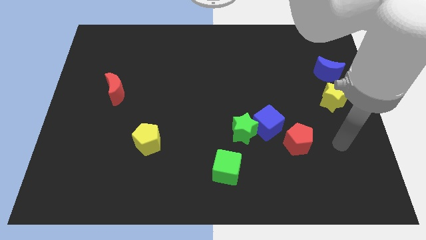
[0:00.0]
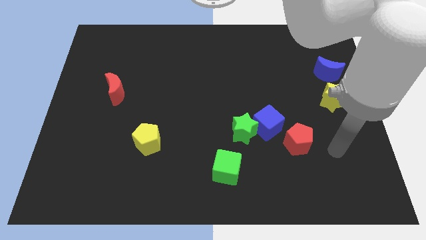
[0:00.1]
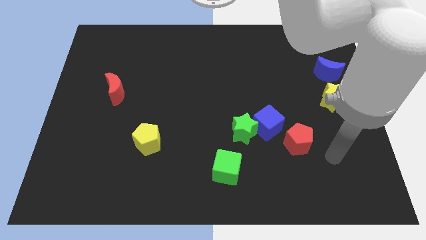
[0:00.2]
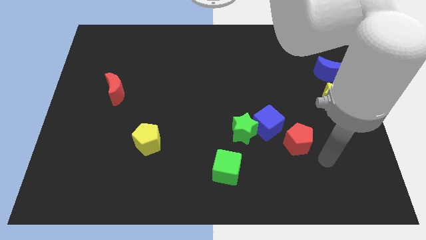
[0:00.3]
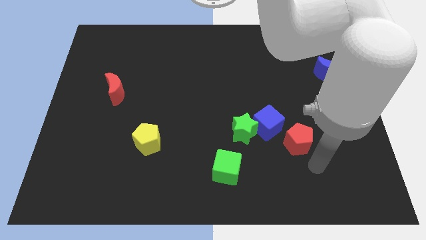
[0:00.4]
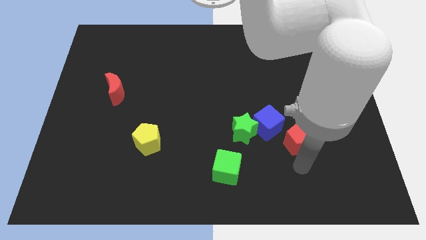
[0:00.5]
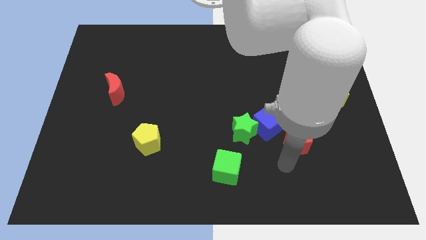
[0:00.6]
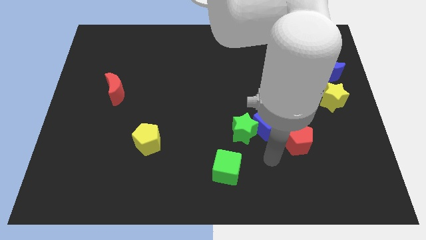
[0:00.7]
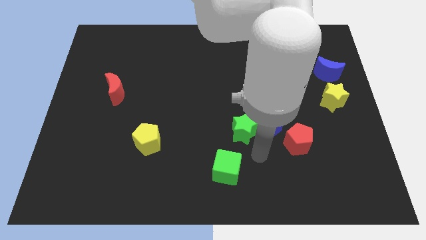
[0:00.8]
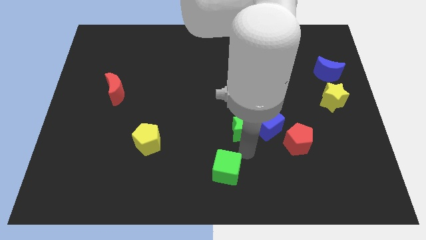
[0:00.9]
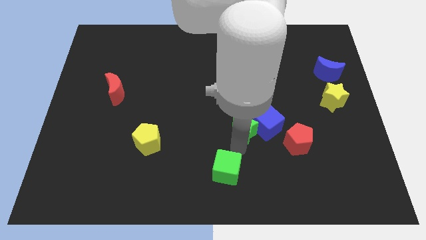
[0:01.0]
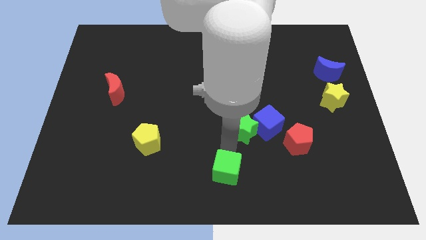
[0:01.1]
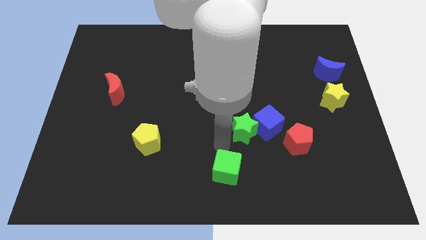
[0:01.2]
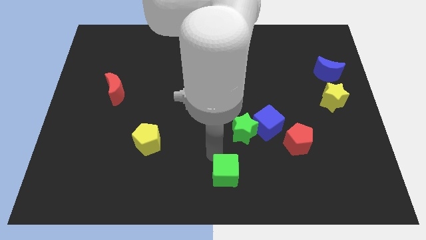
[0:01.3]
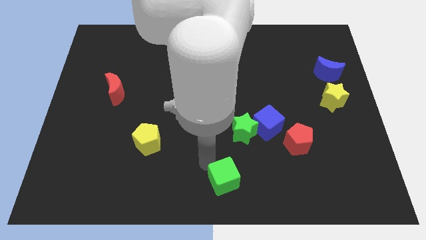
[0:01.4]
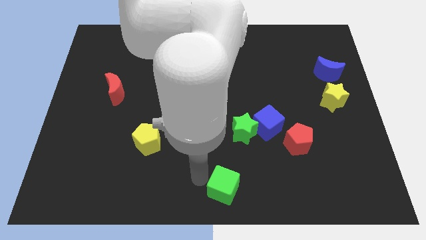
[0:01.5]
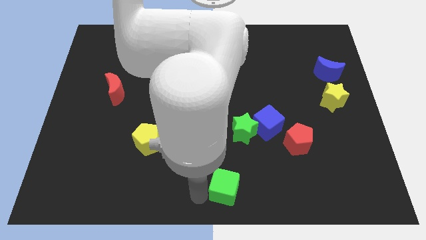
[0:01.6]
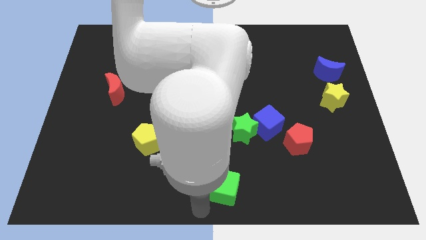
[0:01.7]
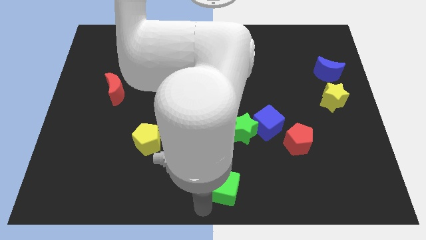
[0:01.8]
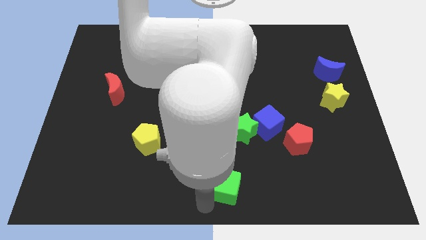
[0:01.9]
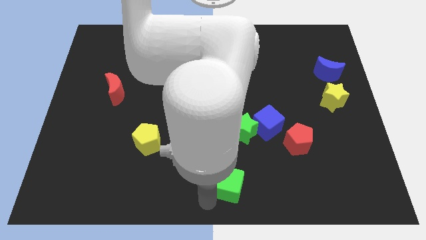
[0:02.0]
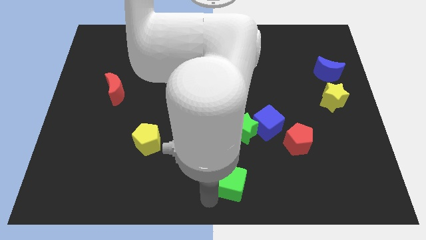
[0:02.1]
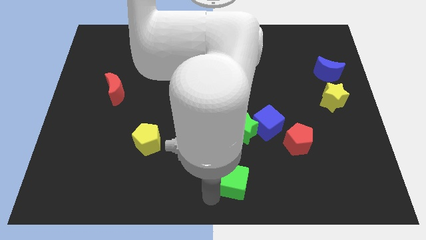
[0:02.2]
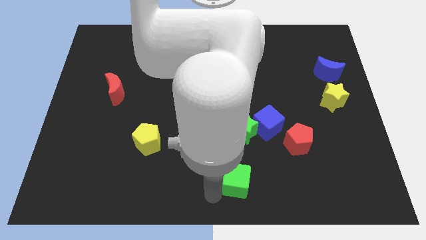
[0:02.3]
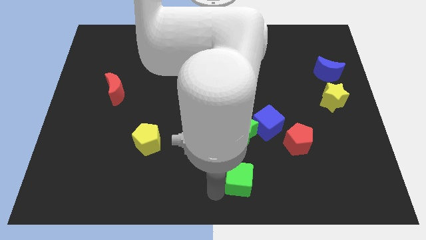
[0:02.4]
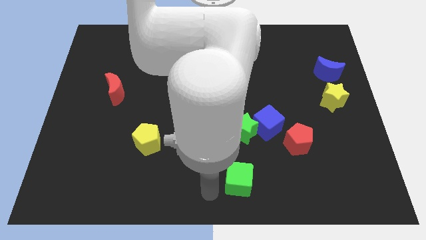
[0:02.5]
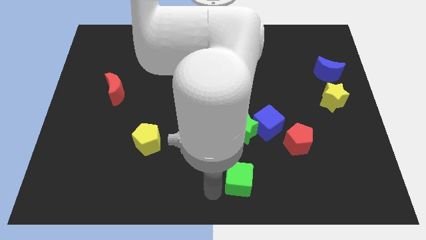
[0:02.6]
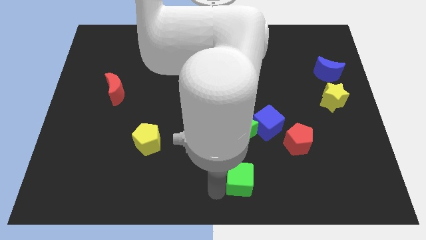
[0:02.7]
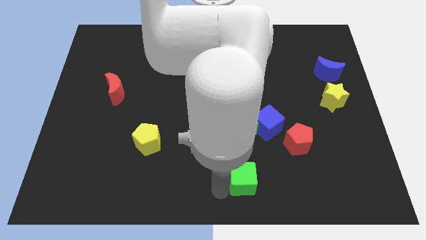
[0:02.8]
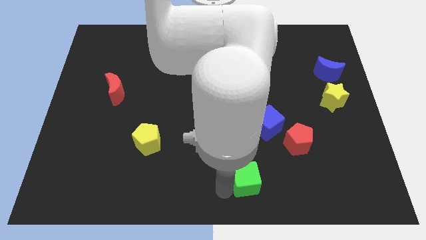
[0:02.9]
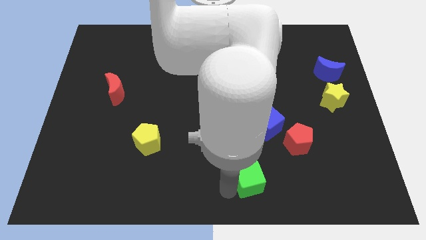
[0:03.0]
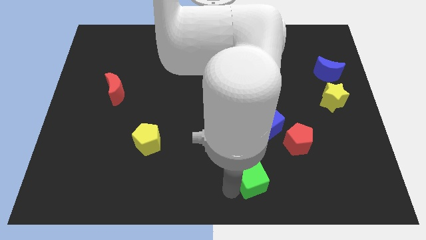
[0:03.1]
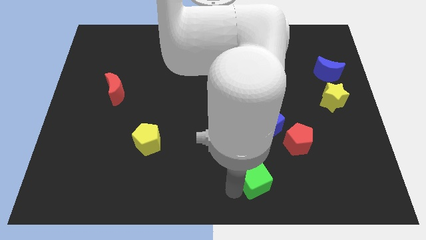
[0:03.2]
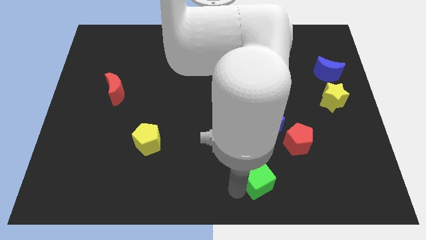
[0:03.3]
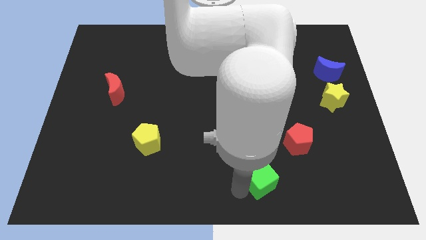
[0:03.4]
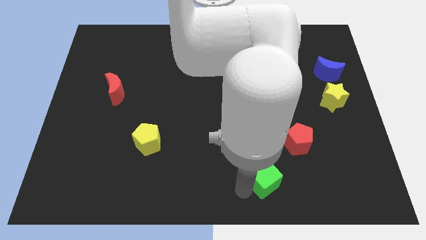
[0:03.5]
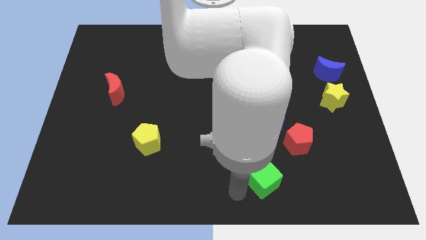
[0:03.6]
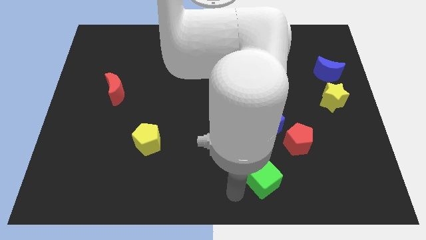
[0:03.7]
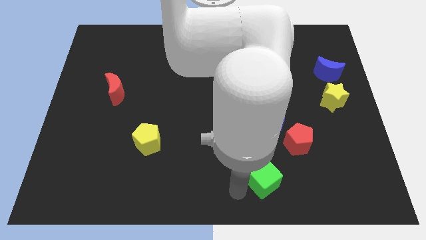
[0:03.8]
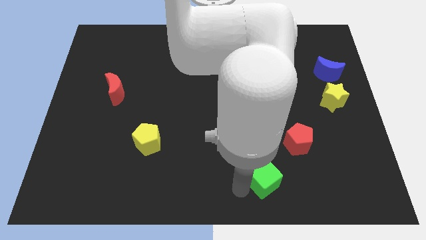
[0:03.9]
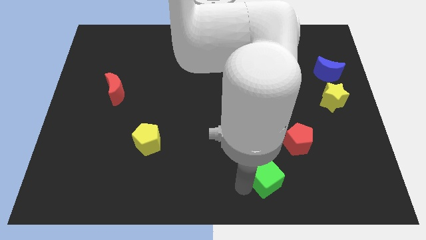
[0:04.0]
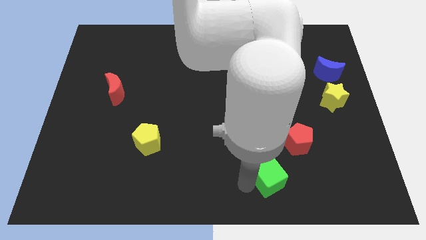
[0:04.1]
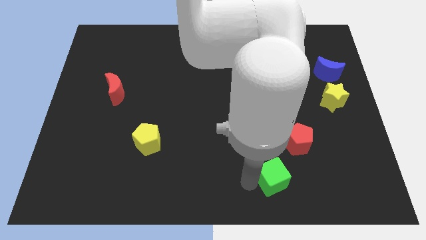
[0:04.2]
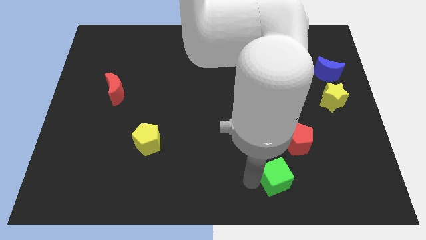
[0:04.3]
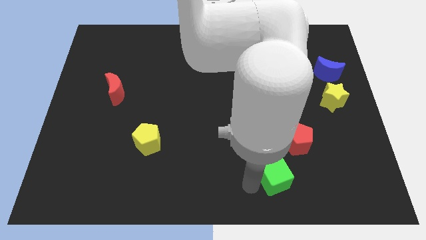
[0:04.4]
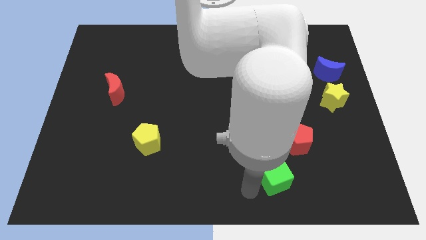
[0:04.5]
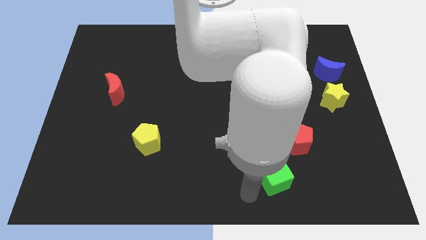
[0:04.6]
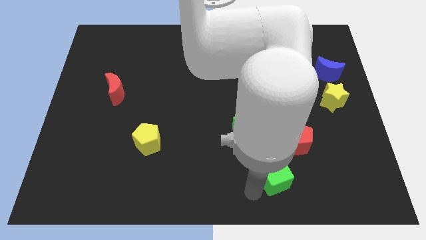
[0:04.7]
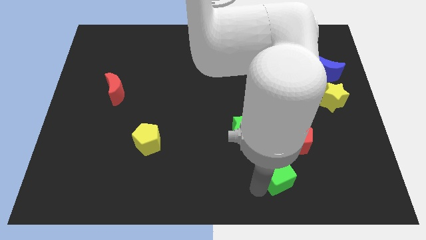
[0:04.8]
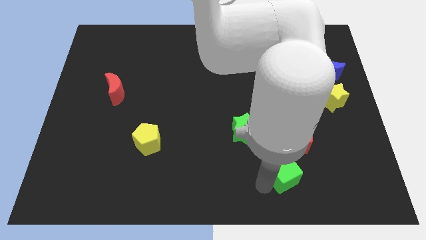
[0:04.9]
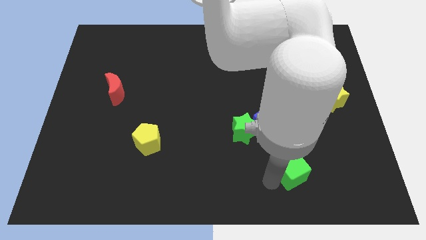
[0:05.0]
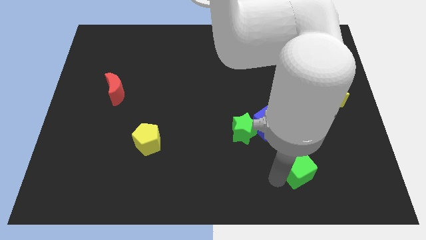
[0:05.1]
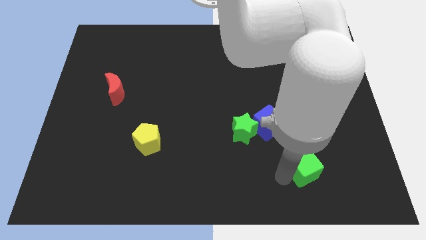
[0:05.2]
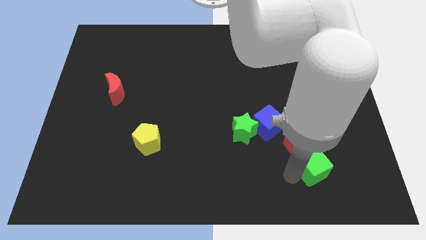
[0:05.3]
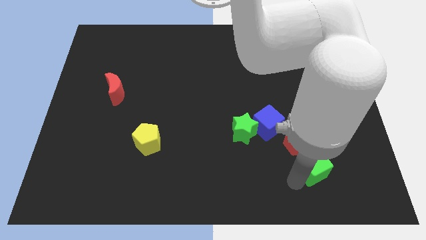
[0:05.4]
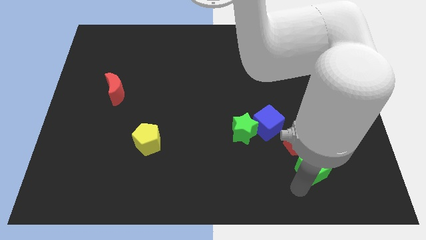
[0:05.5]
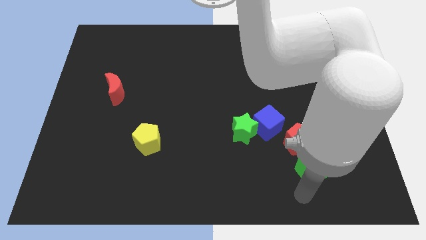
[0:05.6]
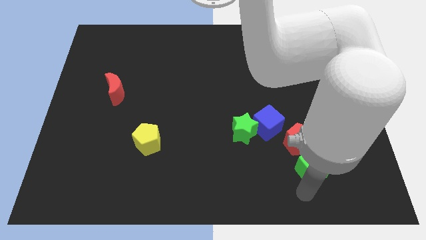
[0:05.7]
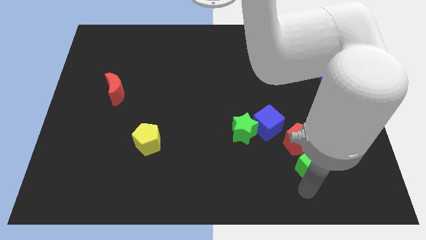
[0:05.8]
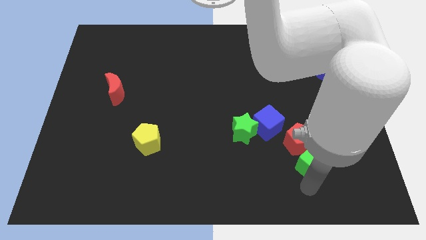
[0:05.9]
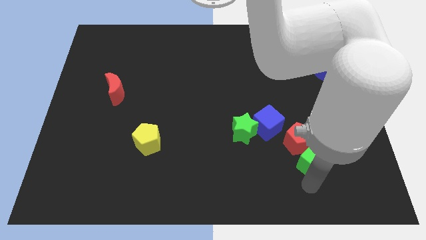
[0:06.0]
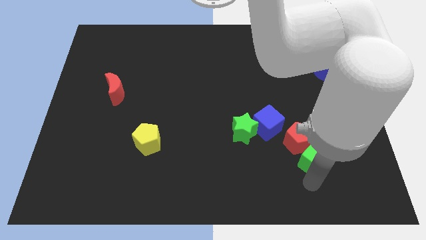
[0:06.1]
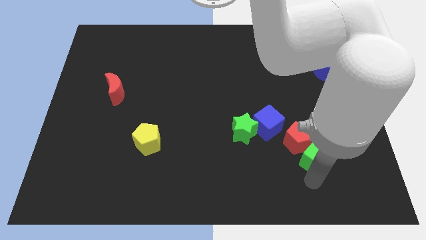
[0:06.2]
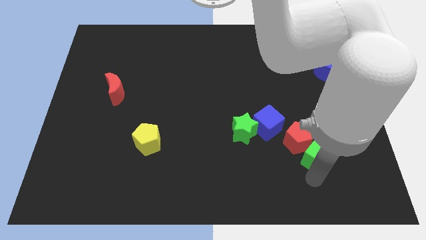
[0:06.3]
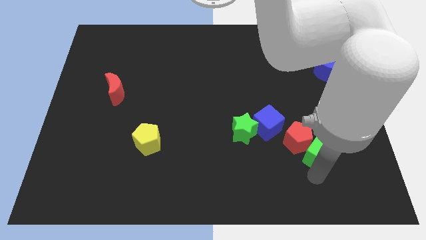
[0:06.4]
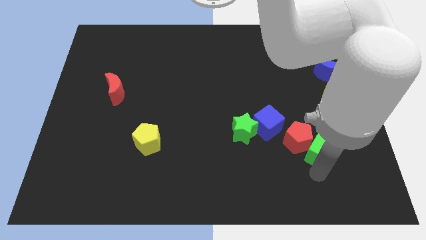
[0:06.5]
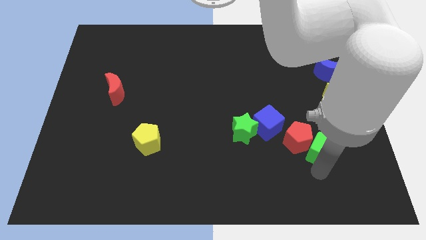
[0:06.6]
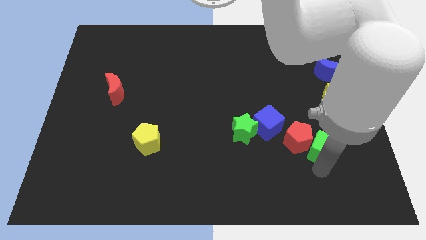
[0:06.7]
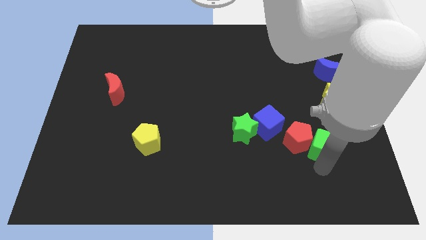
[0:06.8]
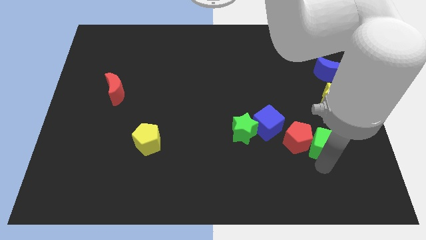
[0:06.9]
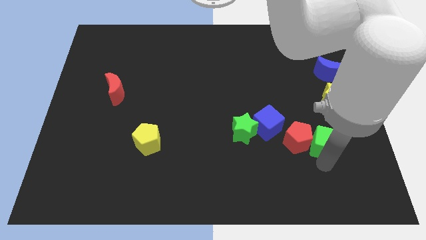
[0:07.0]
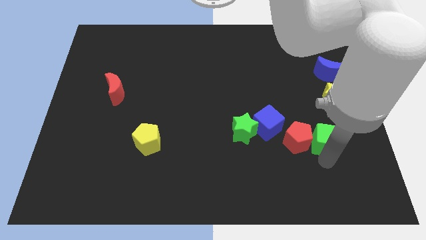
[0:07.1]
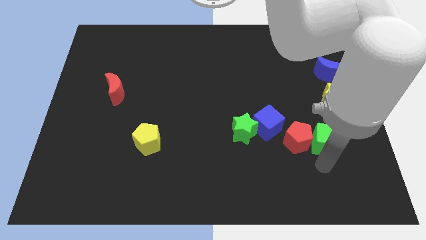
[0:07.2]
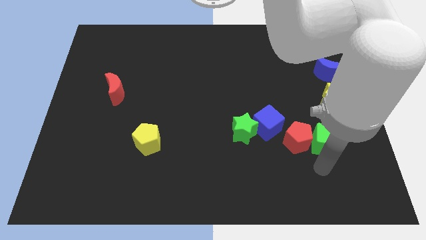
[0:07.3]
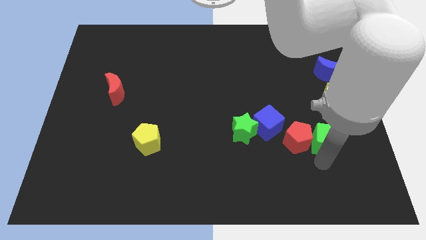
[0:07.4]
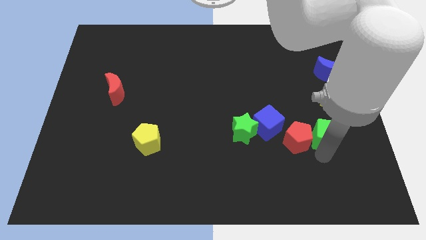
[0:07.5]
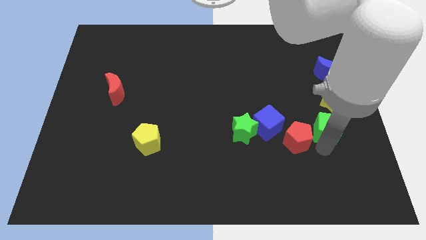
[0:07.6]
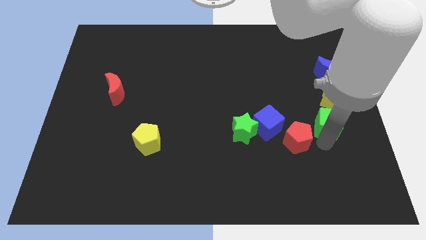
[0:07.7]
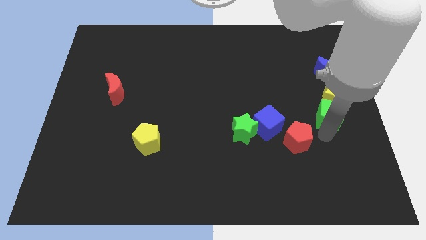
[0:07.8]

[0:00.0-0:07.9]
move the green cube to the yellow star
